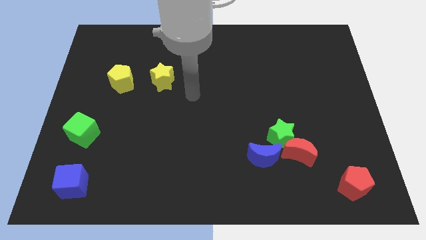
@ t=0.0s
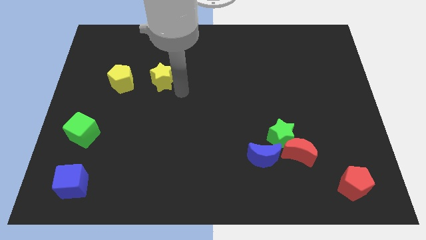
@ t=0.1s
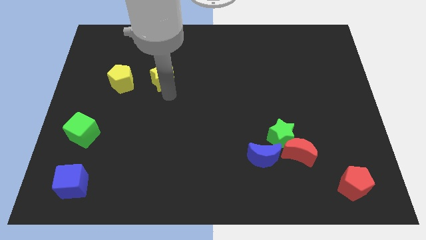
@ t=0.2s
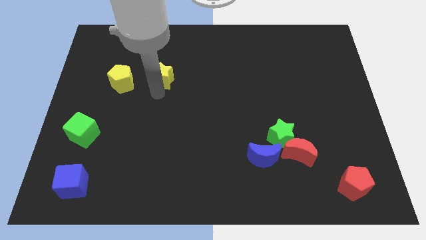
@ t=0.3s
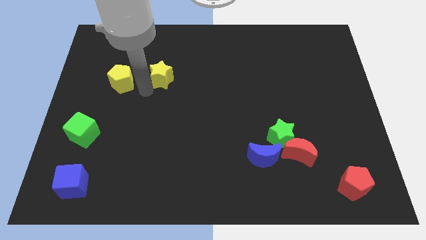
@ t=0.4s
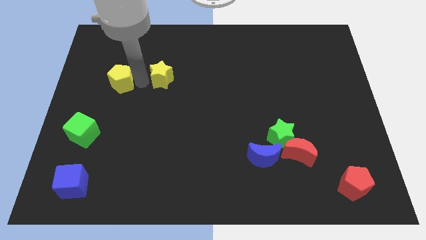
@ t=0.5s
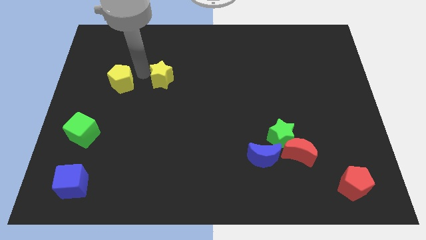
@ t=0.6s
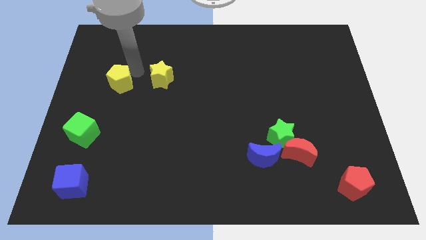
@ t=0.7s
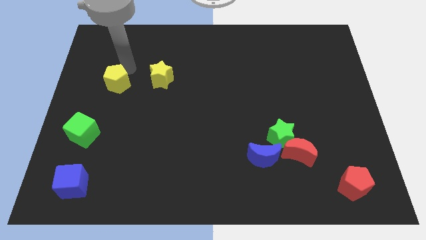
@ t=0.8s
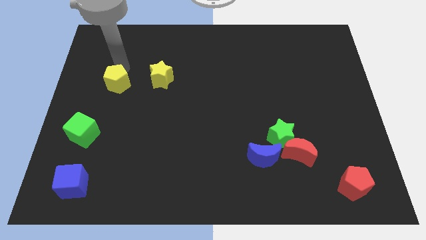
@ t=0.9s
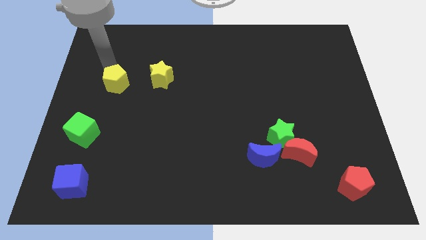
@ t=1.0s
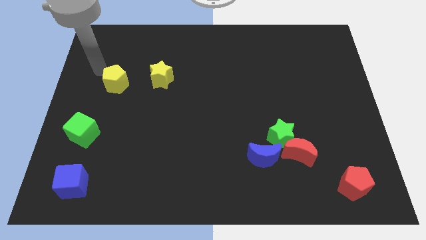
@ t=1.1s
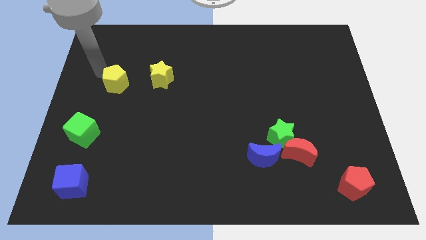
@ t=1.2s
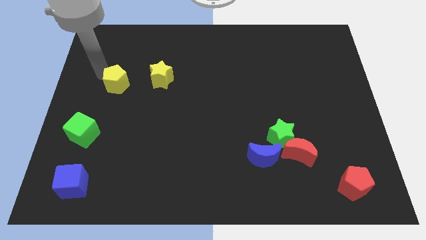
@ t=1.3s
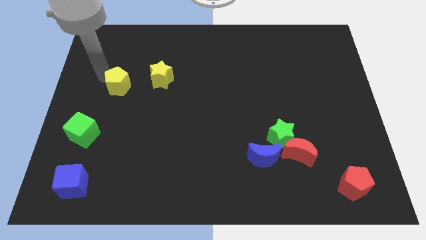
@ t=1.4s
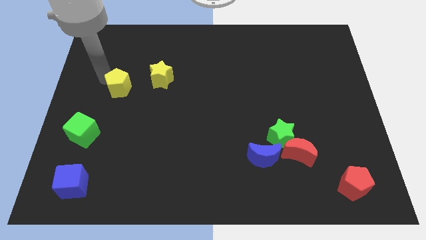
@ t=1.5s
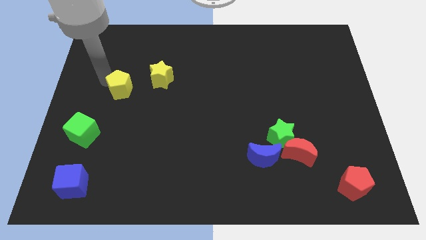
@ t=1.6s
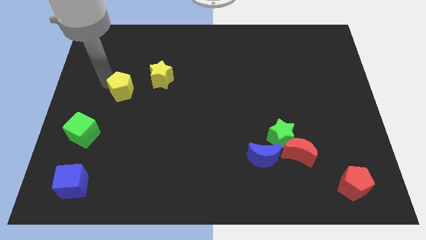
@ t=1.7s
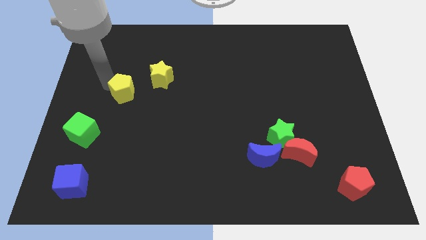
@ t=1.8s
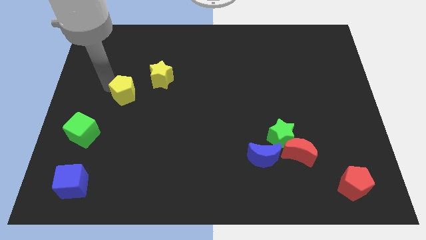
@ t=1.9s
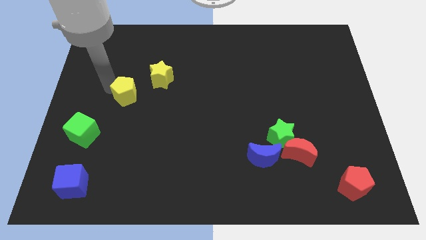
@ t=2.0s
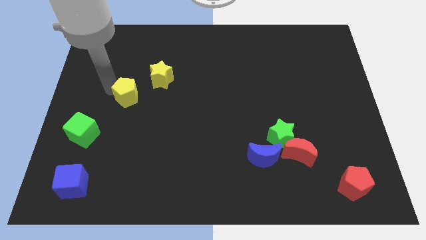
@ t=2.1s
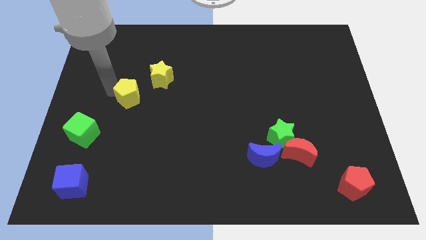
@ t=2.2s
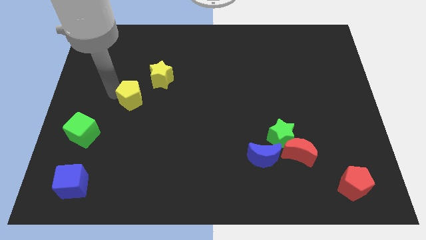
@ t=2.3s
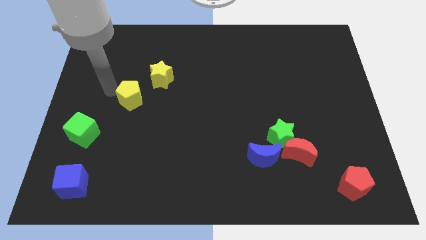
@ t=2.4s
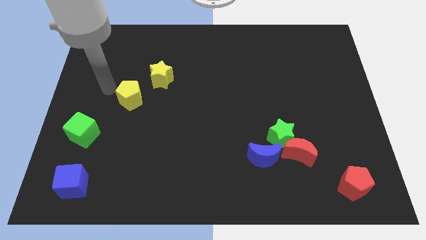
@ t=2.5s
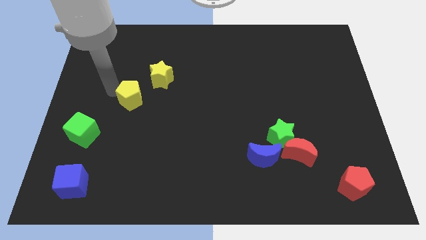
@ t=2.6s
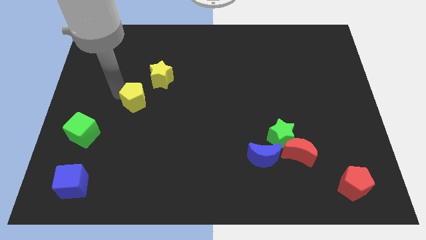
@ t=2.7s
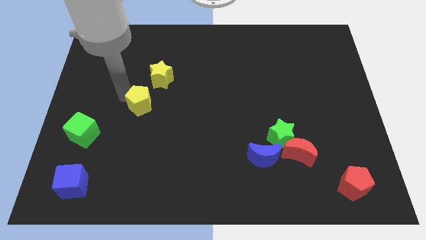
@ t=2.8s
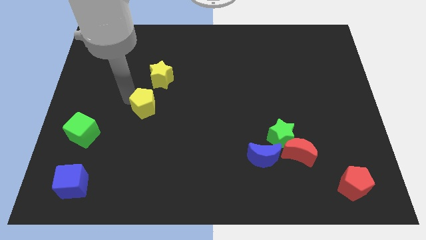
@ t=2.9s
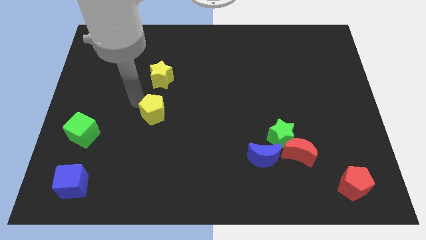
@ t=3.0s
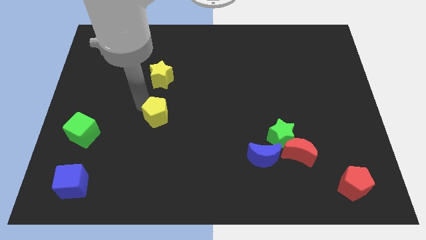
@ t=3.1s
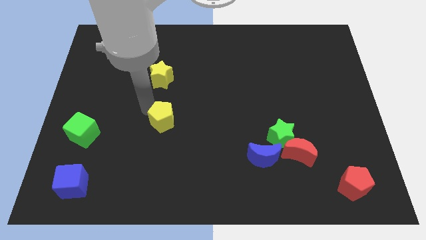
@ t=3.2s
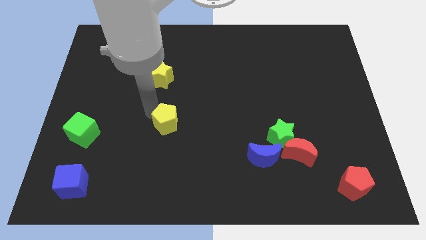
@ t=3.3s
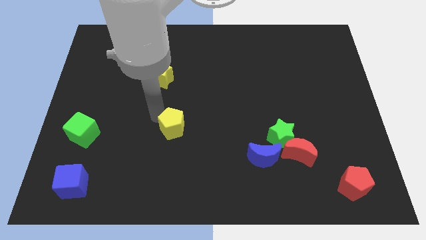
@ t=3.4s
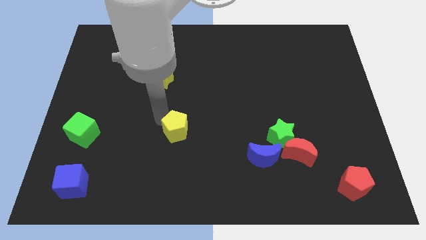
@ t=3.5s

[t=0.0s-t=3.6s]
slide the yellow pentagon down and to the right

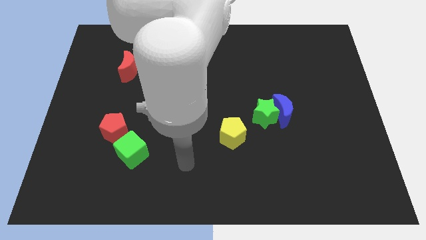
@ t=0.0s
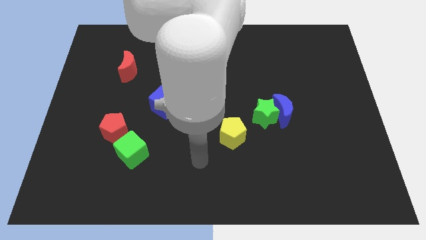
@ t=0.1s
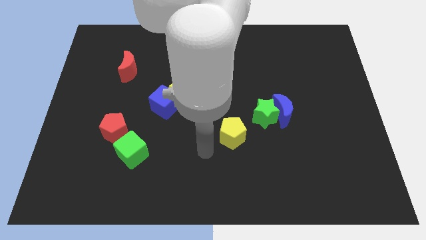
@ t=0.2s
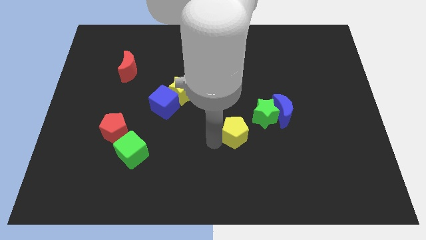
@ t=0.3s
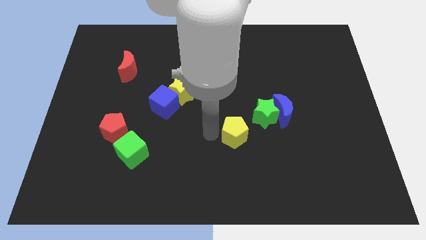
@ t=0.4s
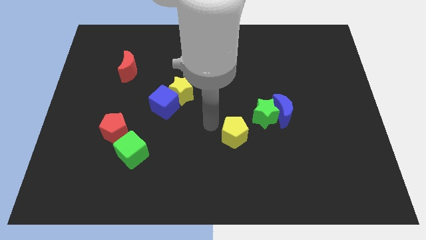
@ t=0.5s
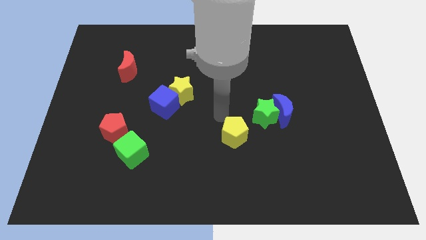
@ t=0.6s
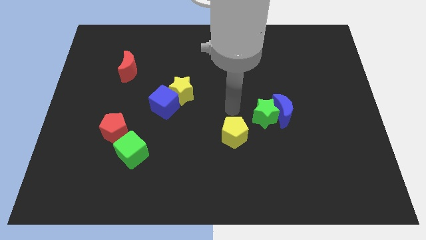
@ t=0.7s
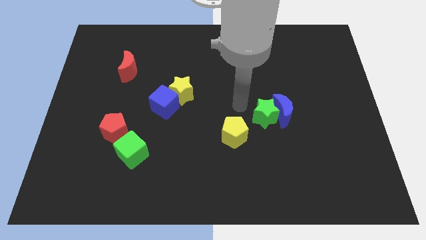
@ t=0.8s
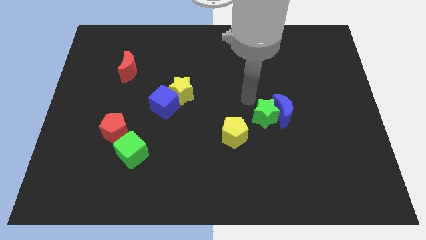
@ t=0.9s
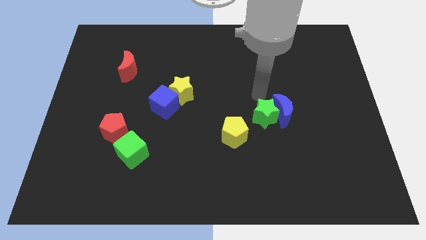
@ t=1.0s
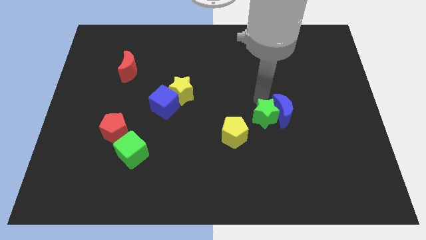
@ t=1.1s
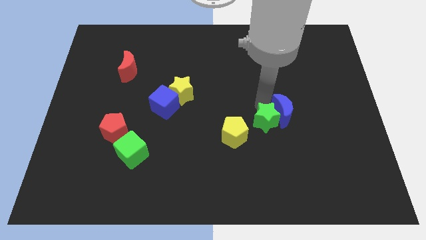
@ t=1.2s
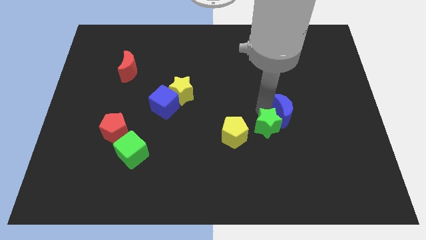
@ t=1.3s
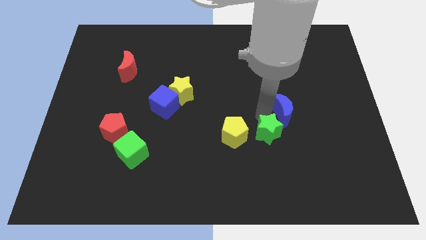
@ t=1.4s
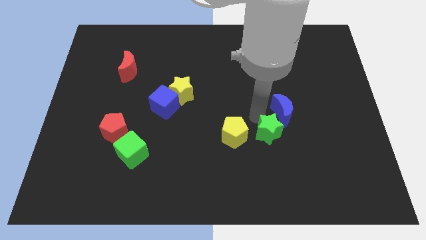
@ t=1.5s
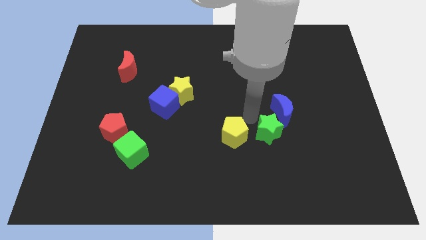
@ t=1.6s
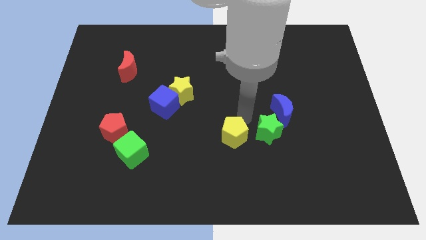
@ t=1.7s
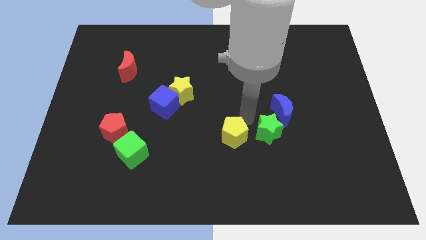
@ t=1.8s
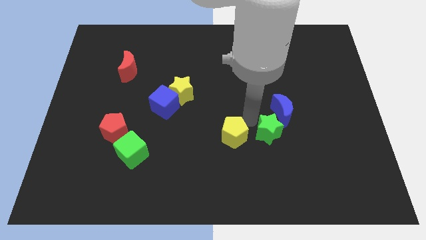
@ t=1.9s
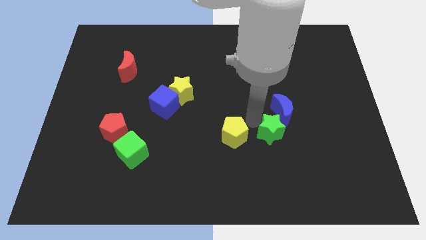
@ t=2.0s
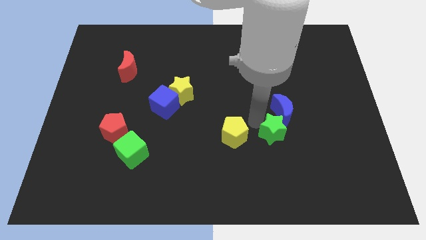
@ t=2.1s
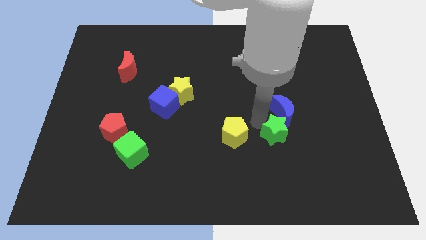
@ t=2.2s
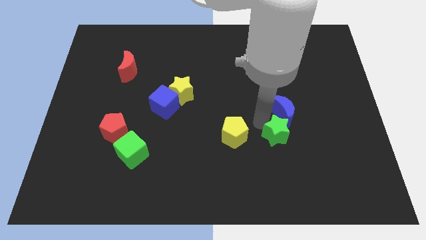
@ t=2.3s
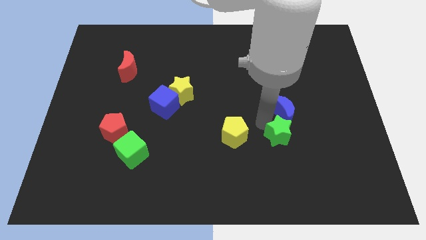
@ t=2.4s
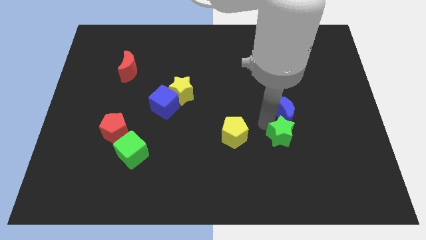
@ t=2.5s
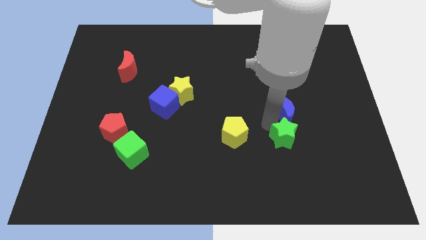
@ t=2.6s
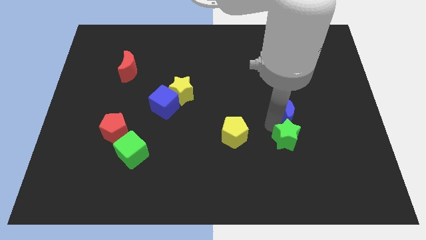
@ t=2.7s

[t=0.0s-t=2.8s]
slightly slide the green star downwards and then to the right

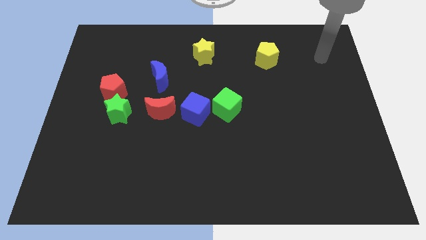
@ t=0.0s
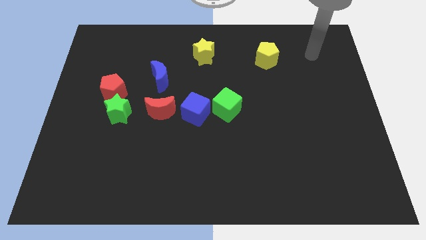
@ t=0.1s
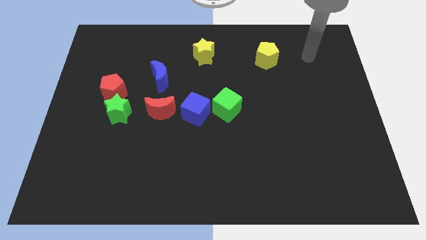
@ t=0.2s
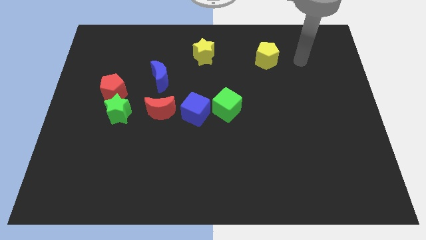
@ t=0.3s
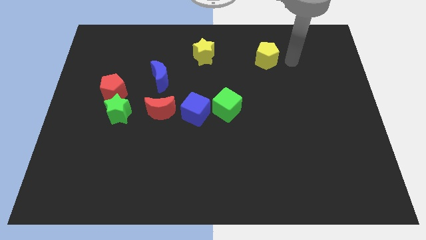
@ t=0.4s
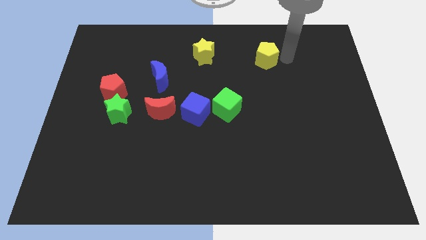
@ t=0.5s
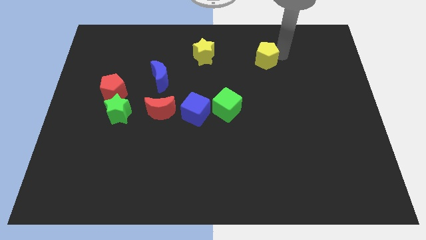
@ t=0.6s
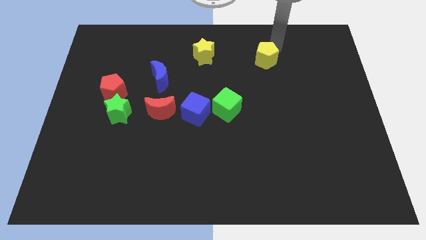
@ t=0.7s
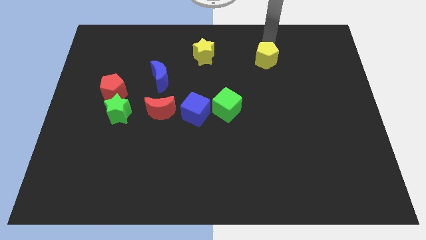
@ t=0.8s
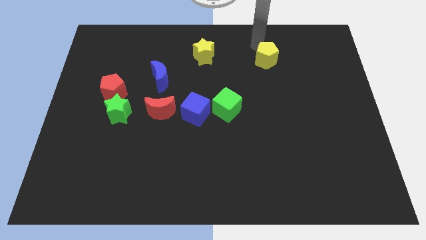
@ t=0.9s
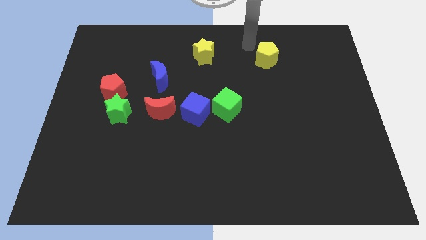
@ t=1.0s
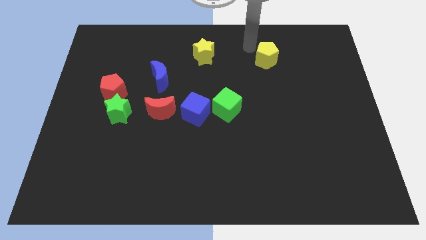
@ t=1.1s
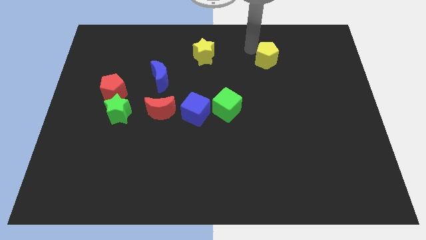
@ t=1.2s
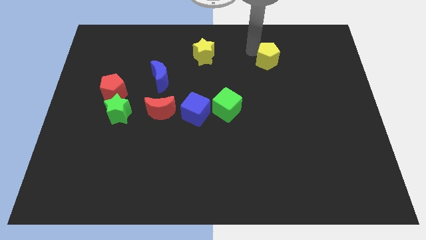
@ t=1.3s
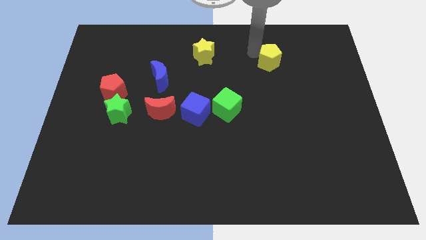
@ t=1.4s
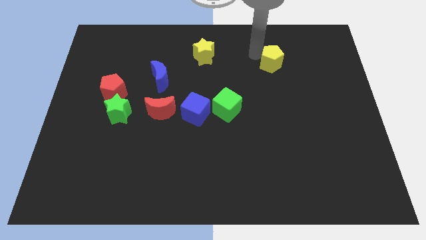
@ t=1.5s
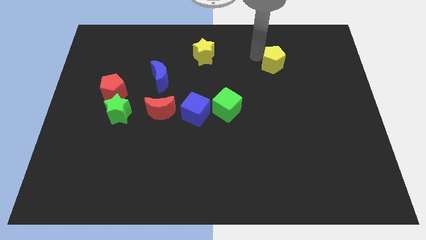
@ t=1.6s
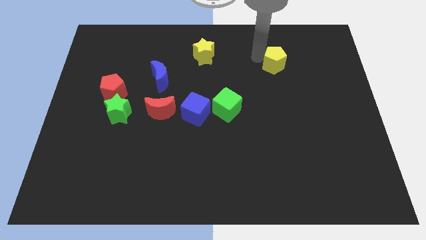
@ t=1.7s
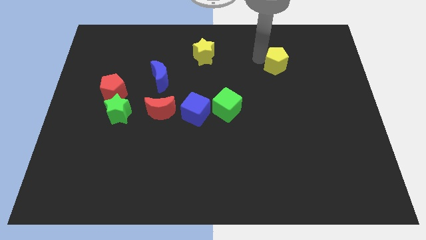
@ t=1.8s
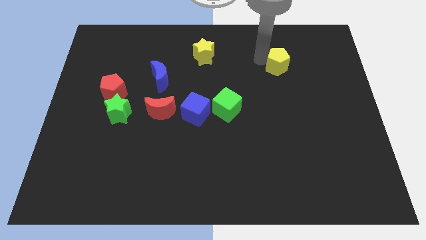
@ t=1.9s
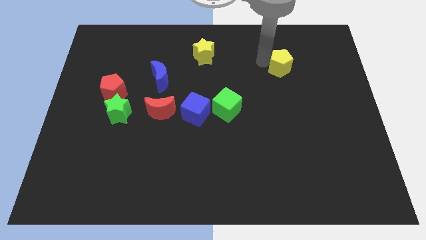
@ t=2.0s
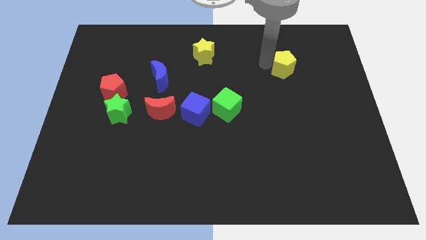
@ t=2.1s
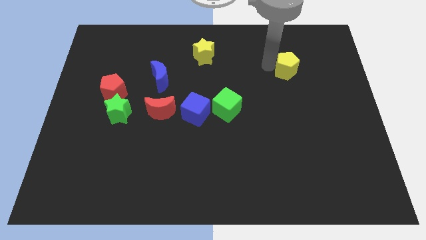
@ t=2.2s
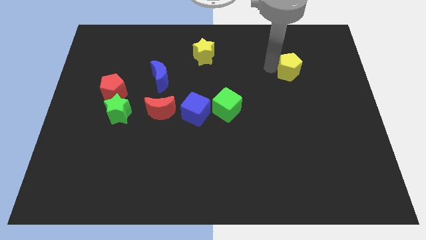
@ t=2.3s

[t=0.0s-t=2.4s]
slightly move the yellow pentagon down and right diagonally
